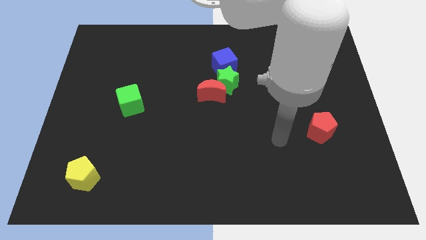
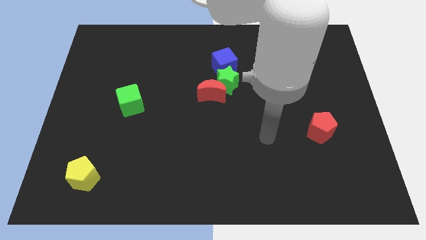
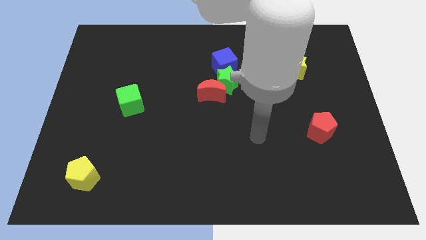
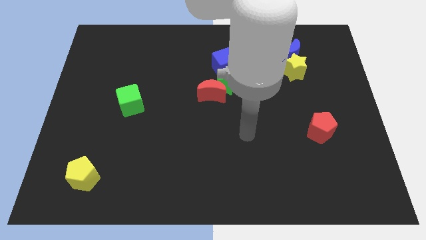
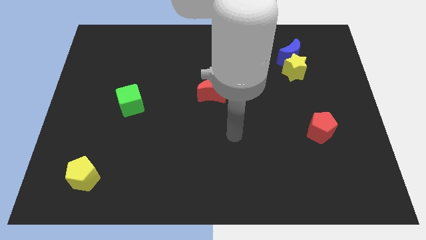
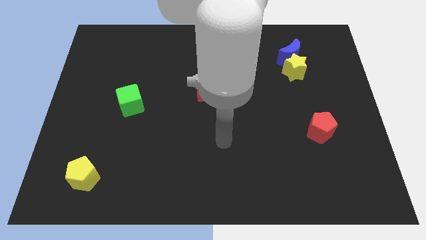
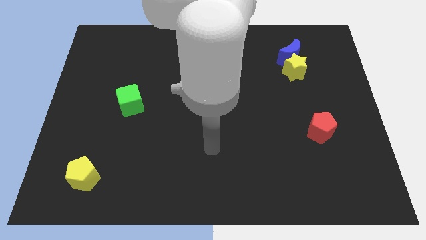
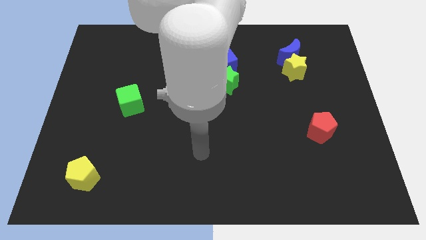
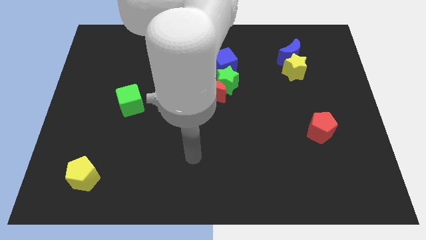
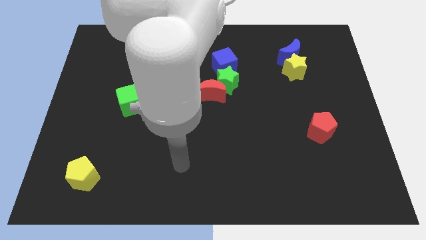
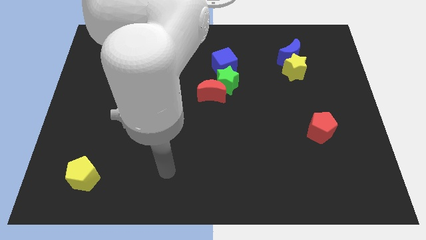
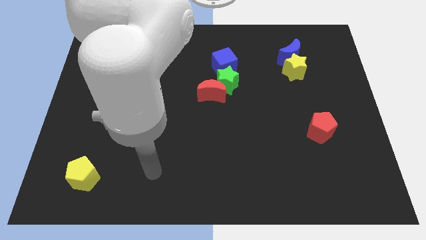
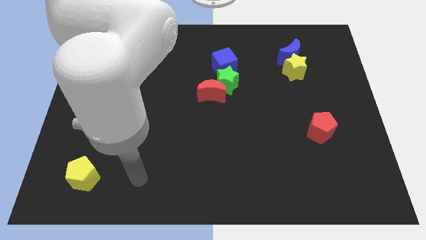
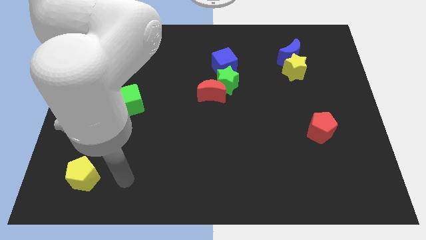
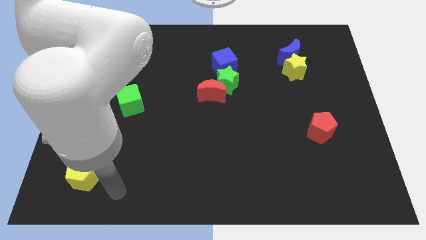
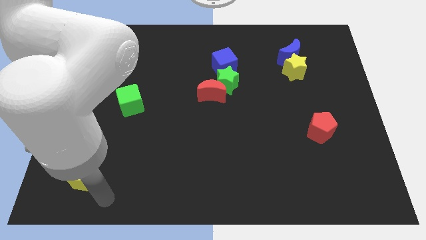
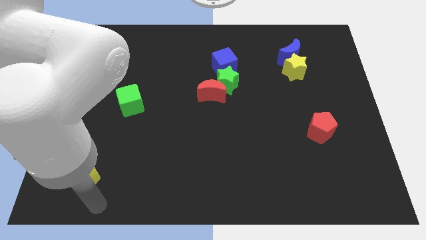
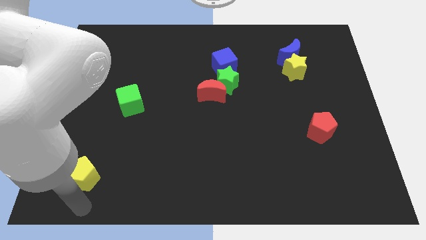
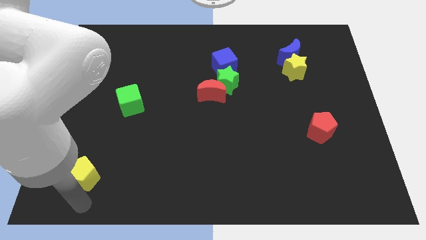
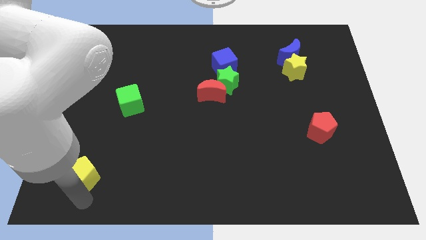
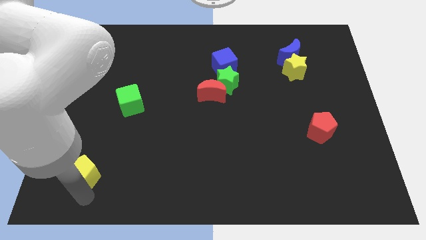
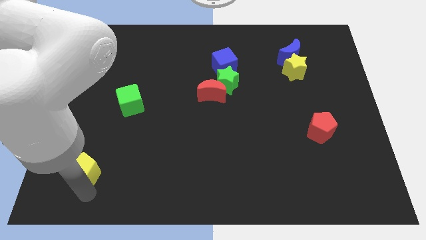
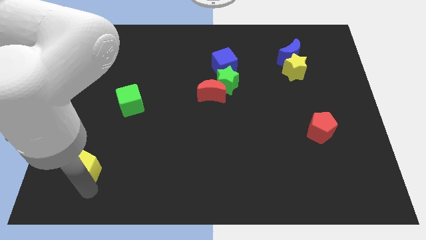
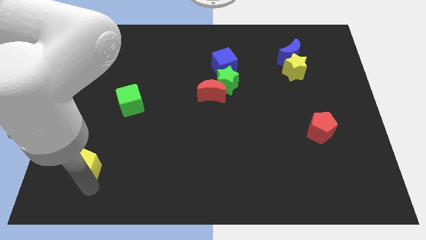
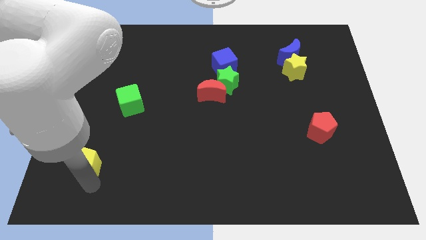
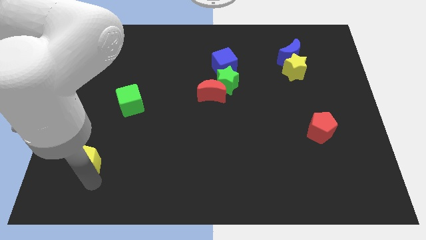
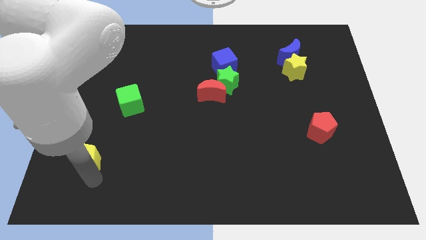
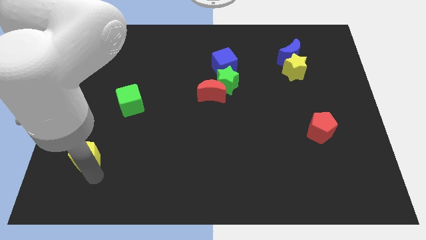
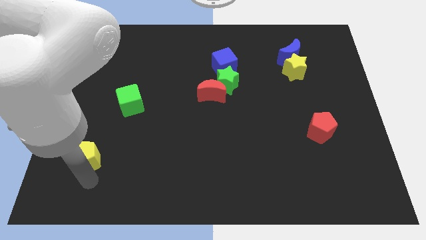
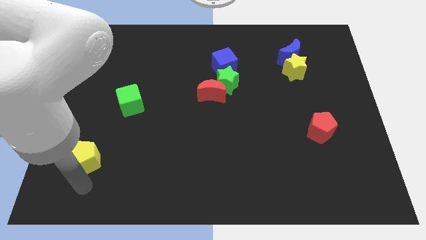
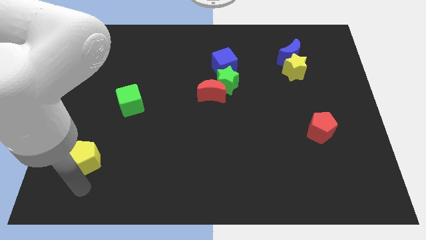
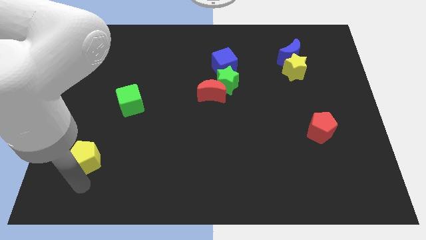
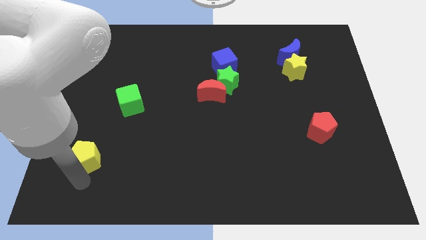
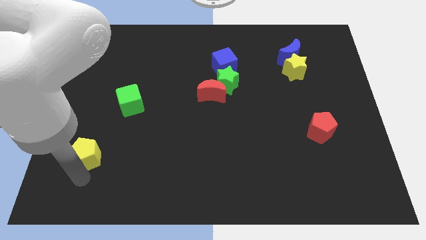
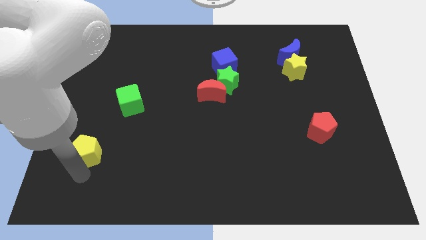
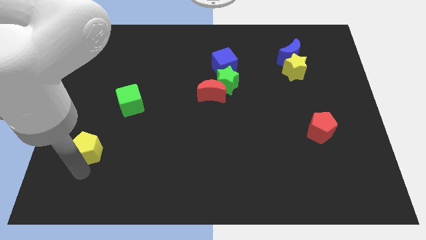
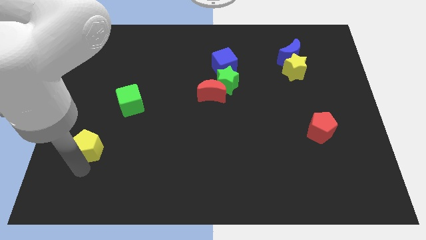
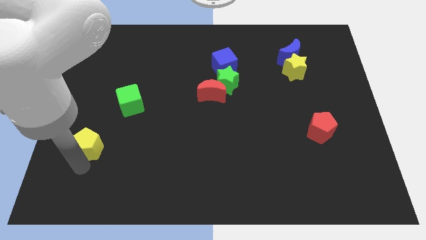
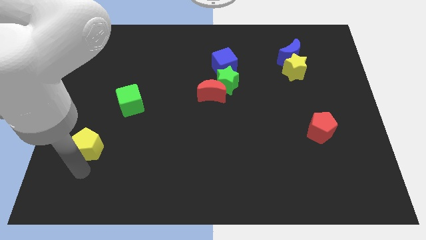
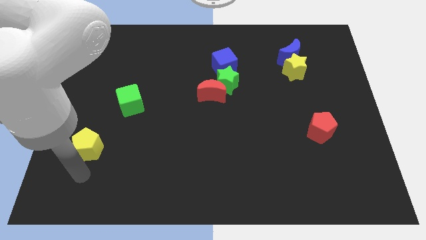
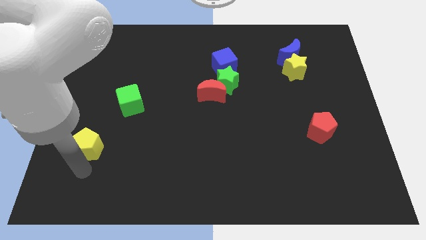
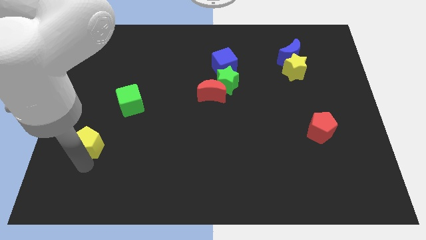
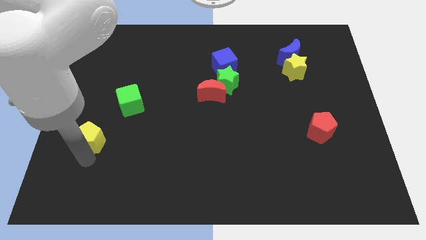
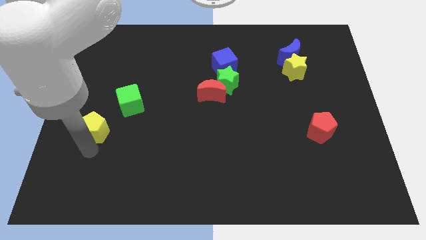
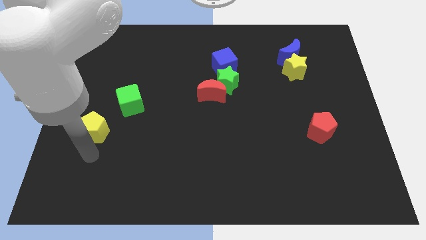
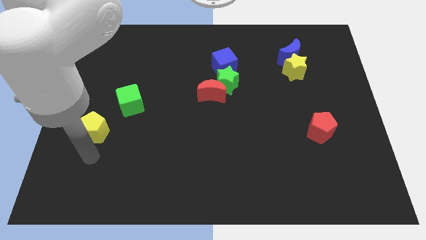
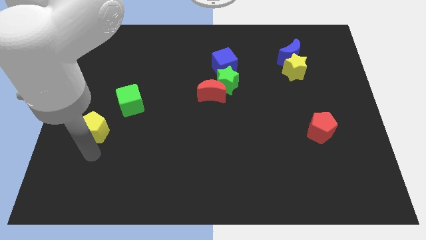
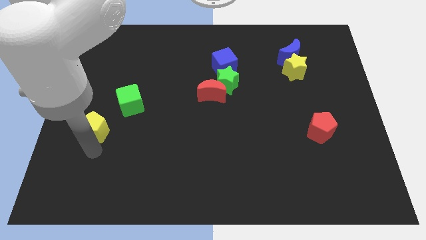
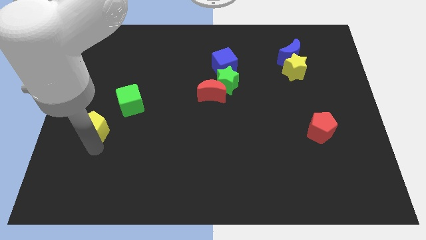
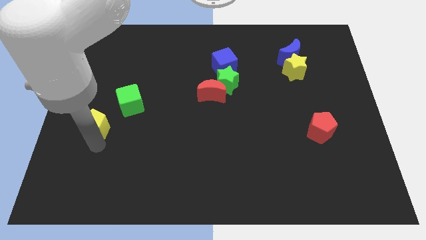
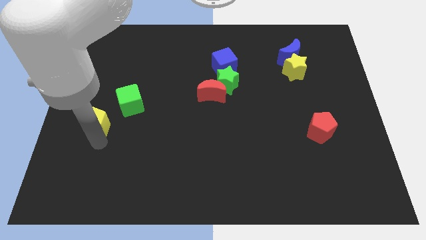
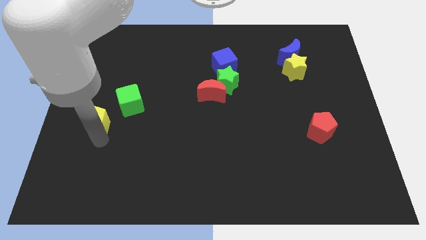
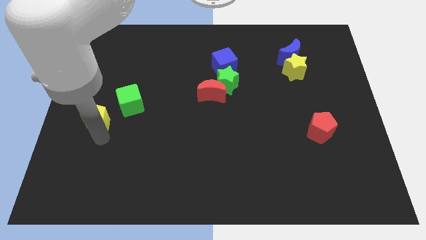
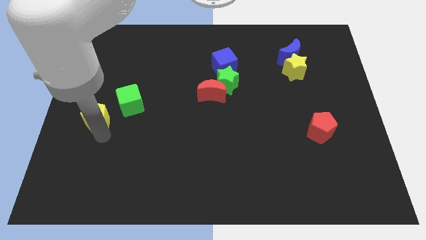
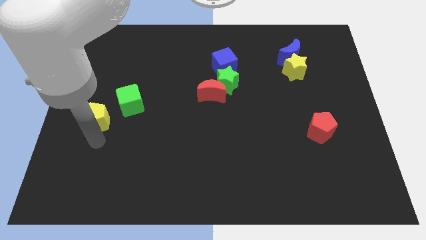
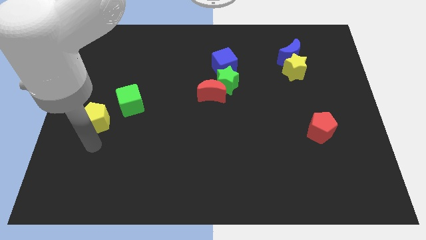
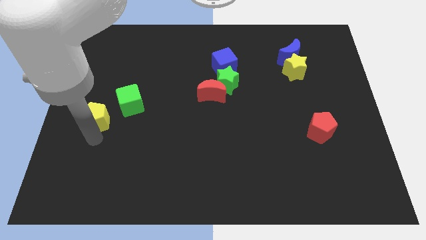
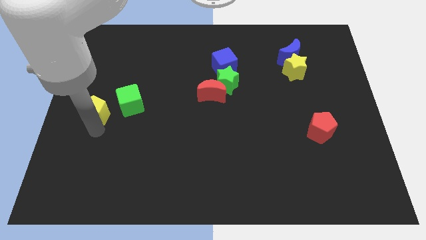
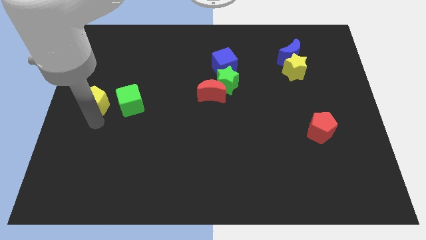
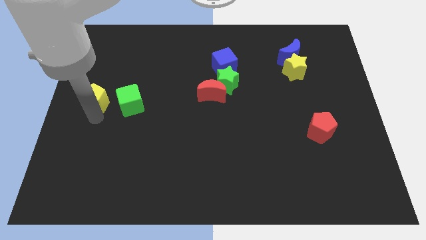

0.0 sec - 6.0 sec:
move the yellow pentagon upwards

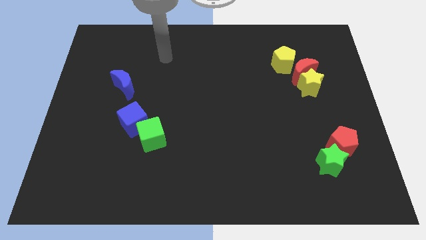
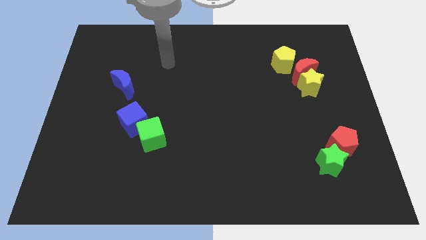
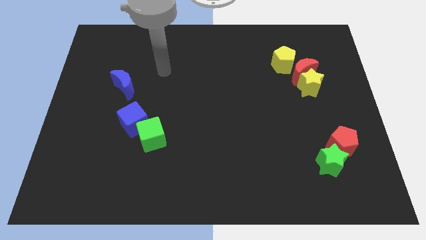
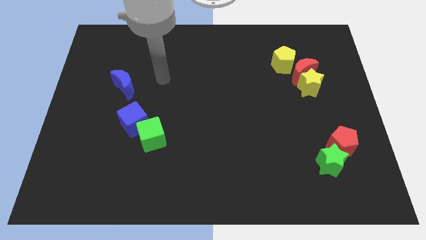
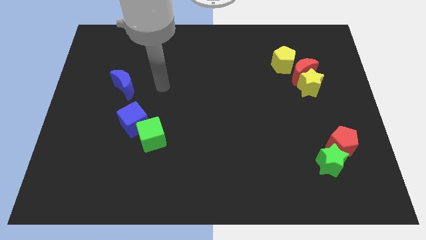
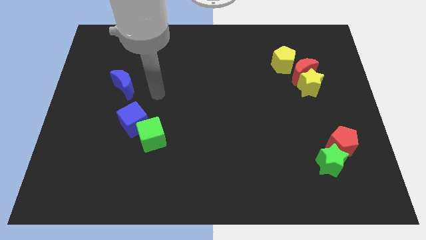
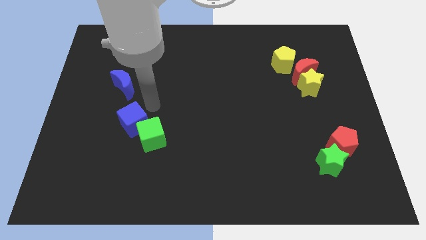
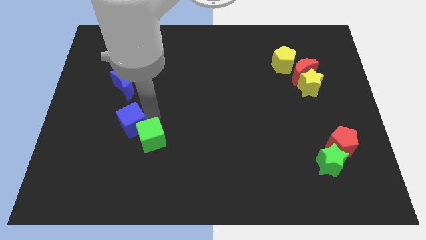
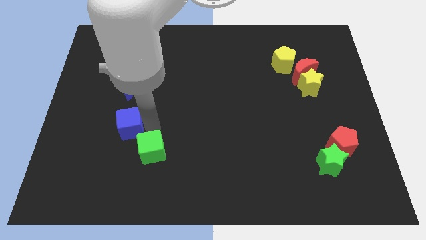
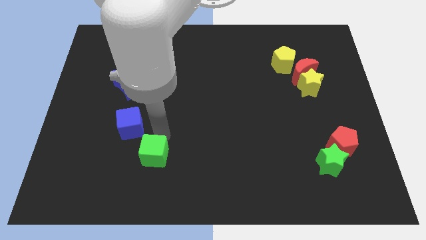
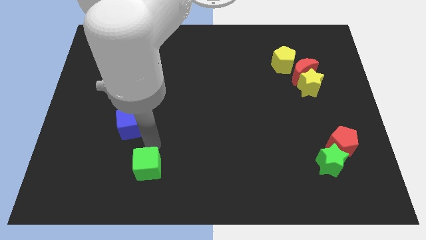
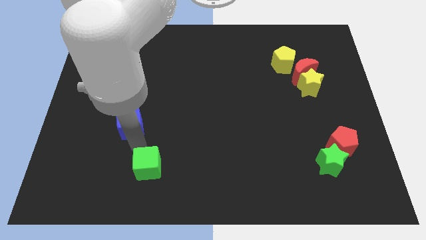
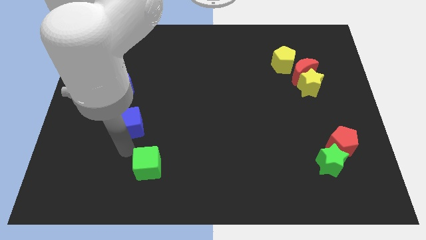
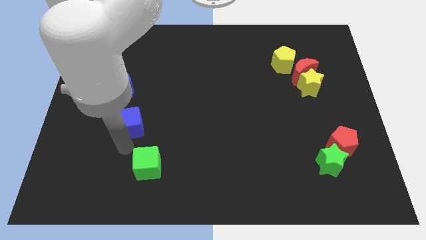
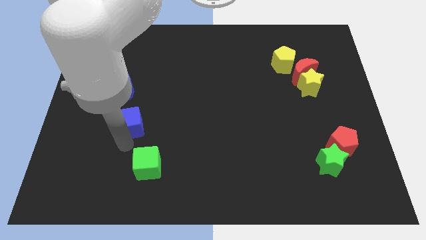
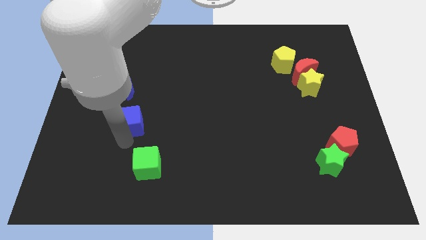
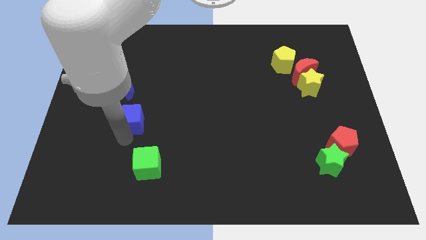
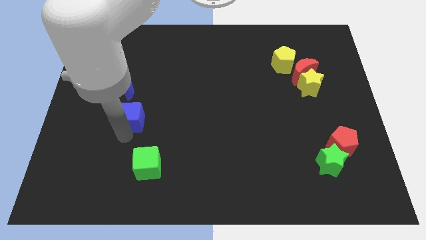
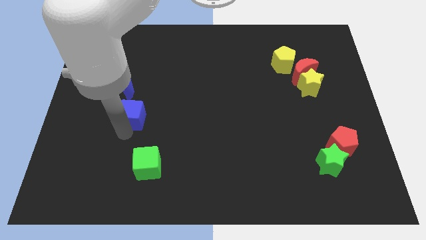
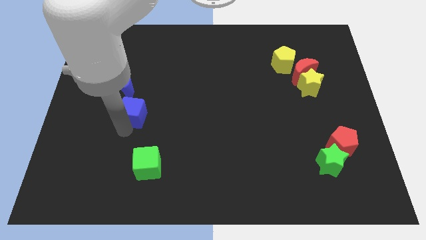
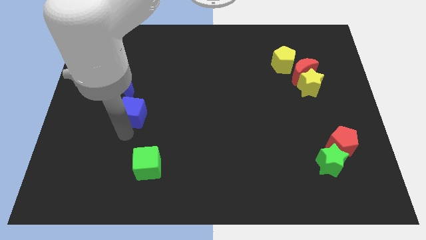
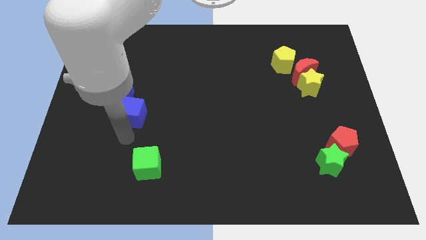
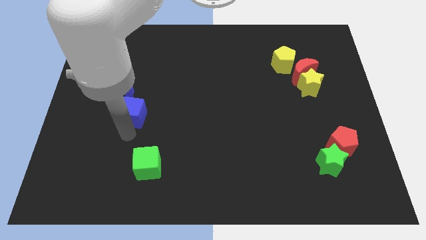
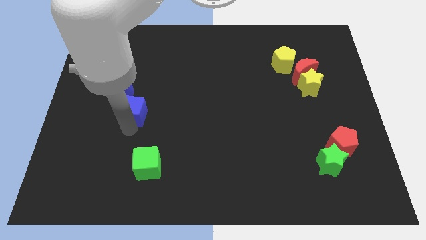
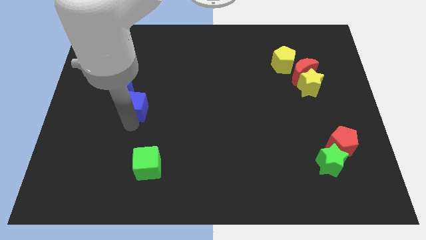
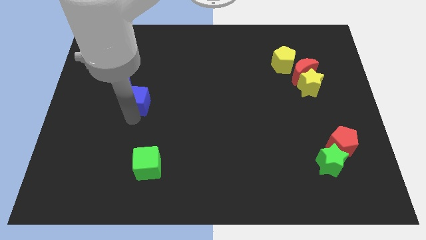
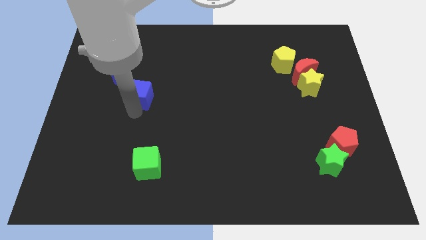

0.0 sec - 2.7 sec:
slightly move the blue cube upwards
